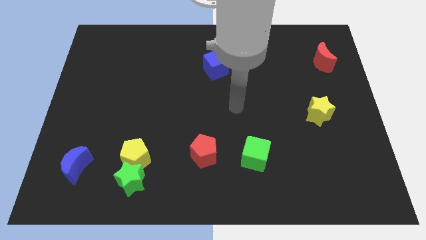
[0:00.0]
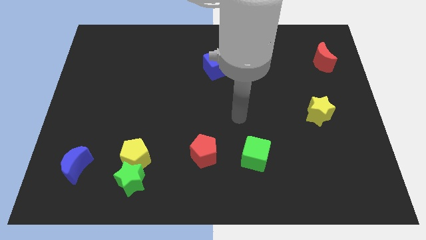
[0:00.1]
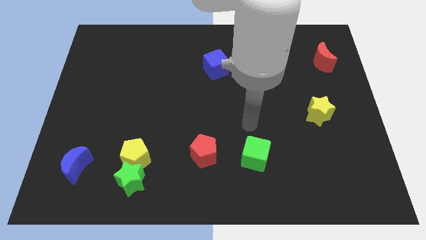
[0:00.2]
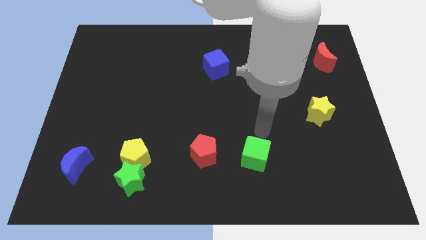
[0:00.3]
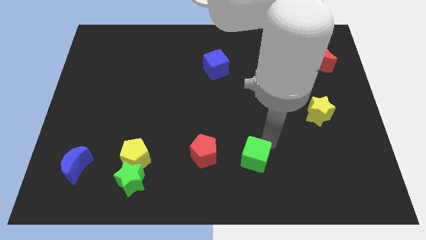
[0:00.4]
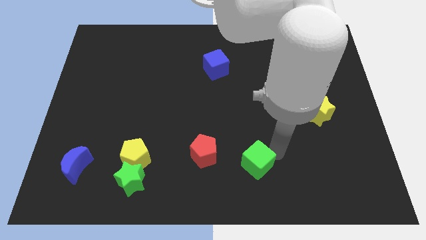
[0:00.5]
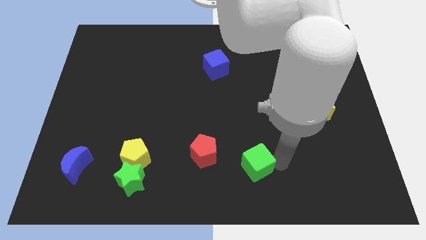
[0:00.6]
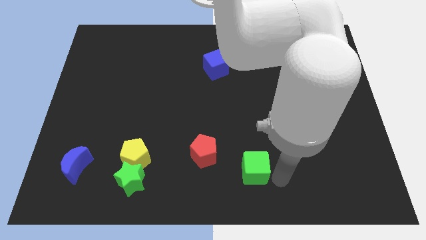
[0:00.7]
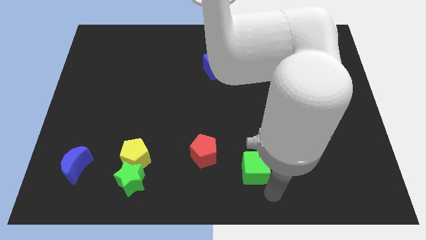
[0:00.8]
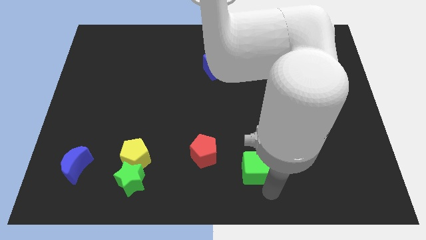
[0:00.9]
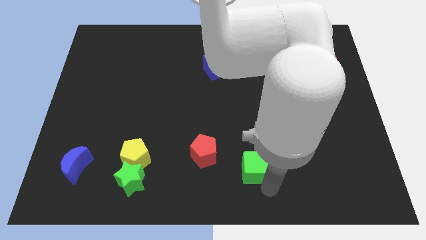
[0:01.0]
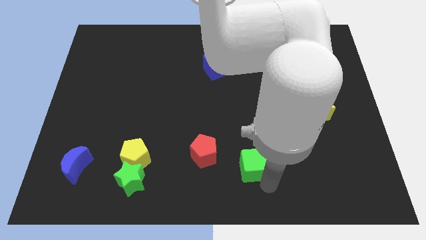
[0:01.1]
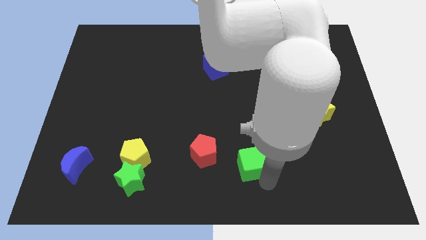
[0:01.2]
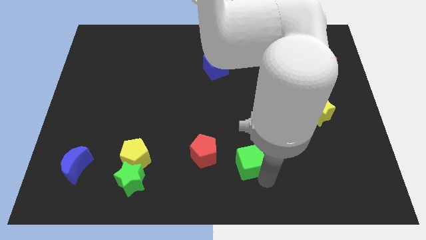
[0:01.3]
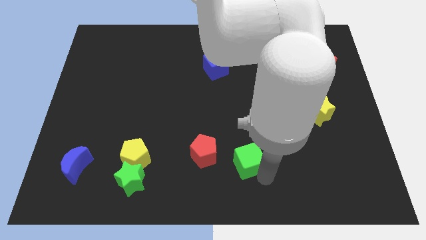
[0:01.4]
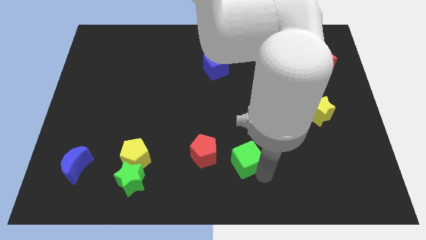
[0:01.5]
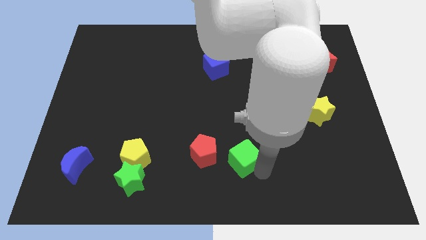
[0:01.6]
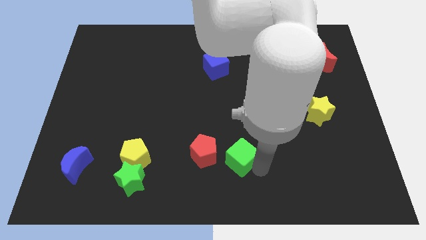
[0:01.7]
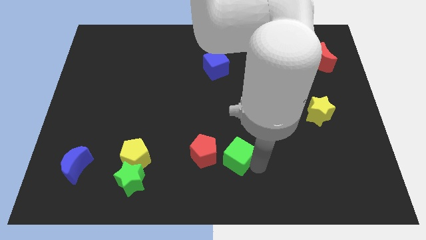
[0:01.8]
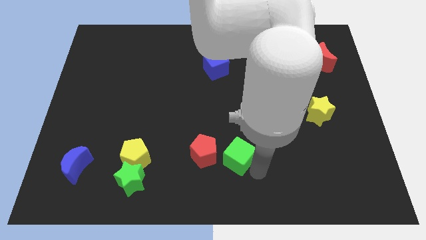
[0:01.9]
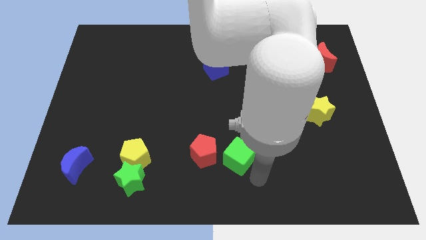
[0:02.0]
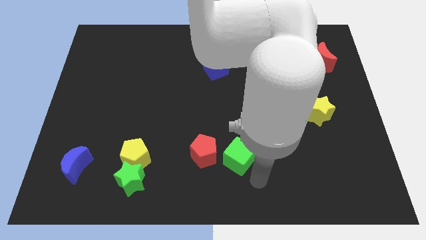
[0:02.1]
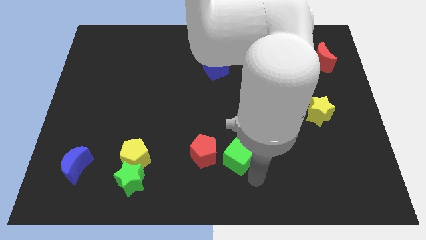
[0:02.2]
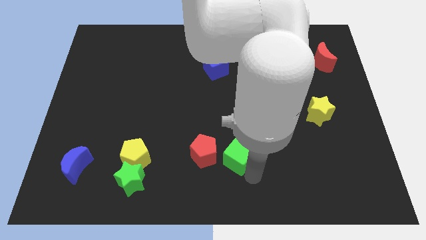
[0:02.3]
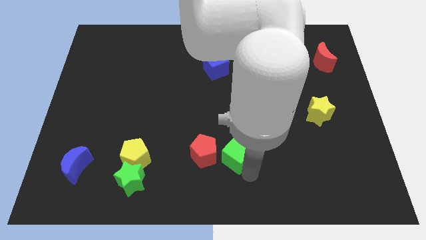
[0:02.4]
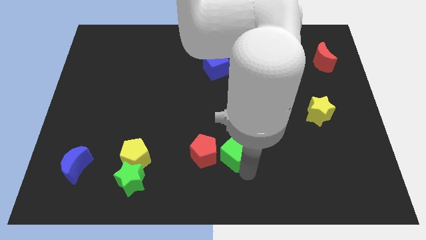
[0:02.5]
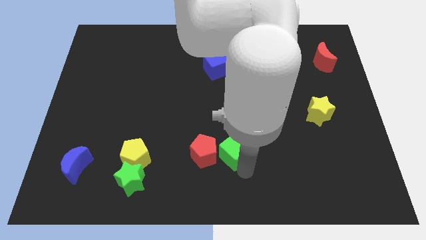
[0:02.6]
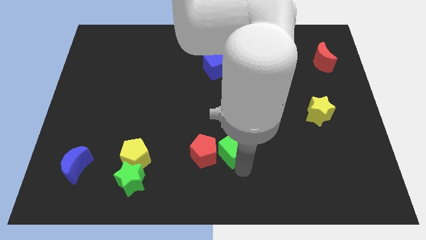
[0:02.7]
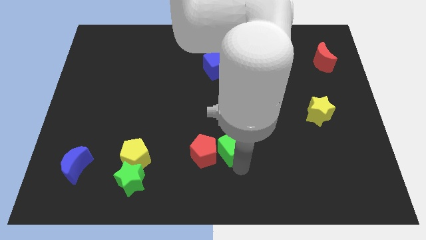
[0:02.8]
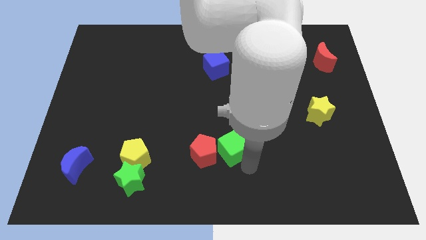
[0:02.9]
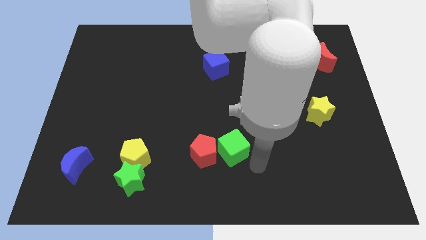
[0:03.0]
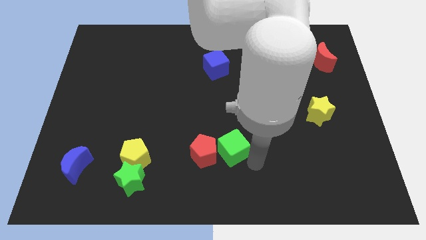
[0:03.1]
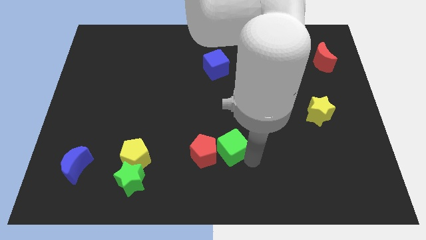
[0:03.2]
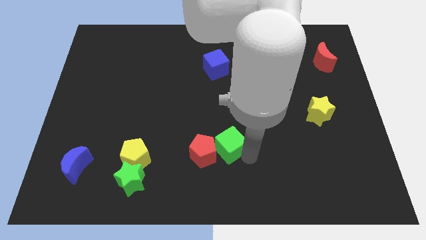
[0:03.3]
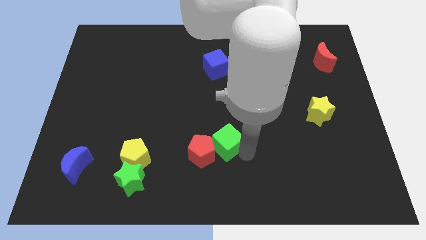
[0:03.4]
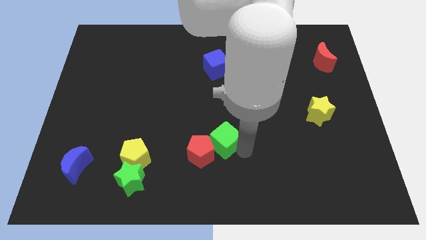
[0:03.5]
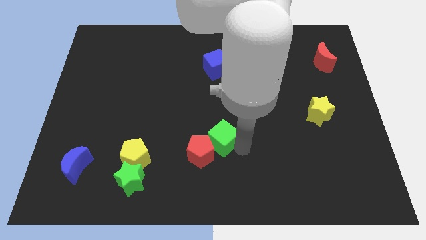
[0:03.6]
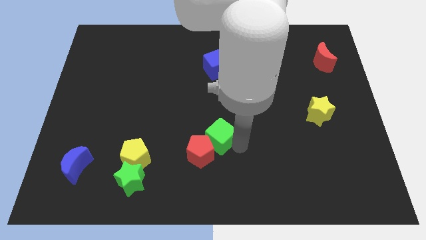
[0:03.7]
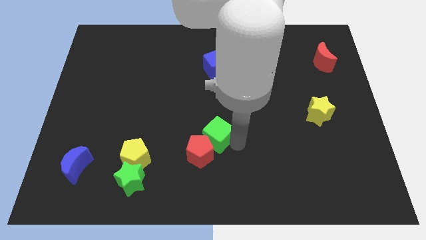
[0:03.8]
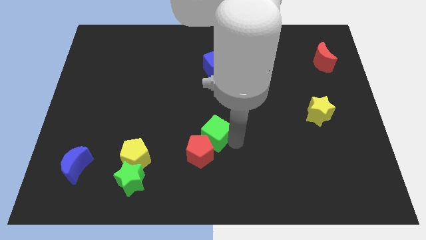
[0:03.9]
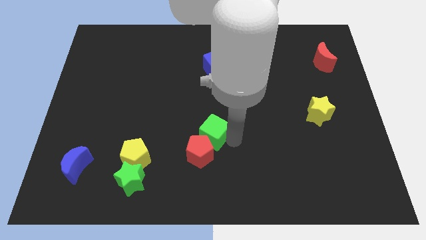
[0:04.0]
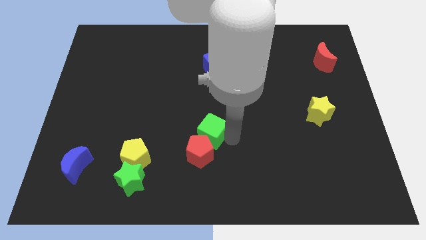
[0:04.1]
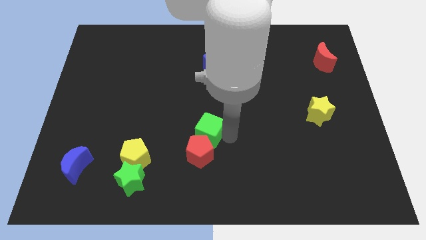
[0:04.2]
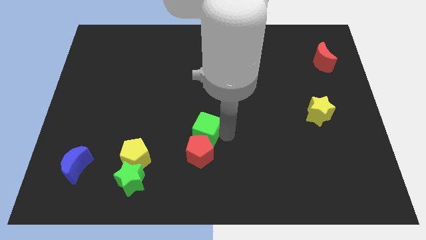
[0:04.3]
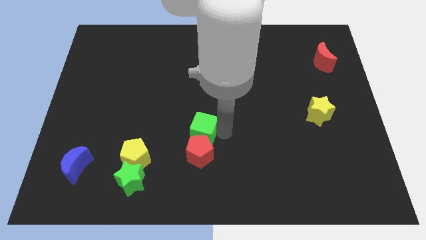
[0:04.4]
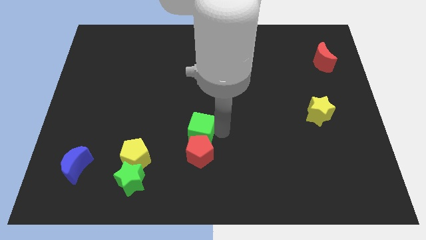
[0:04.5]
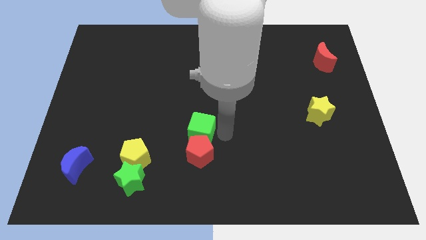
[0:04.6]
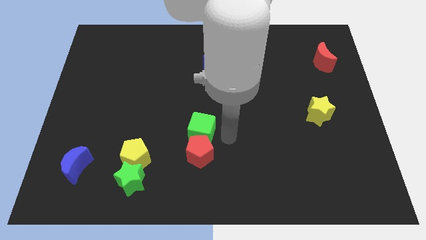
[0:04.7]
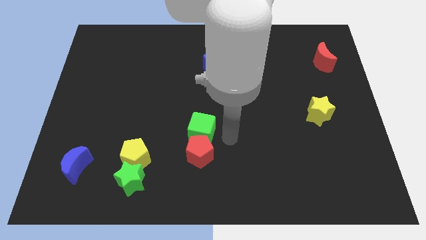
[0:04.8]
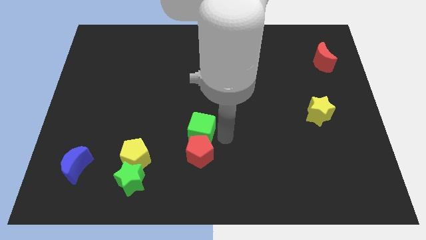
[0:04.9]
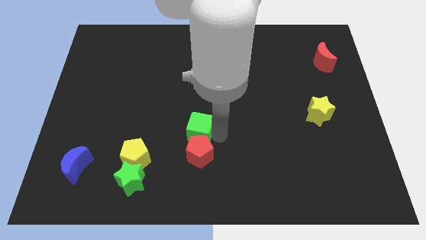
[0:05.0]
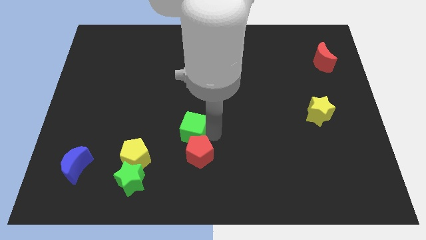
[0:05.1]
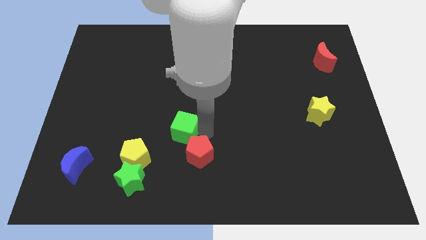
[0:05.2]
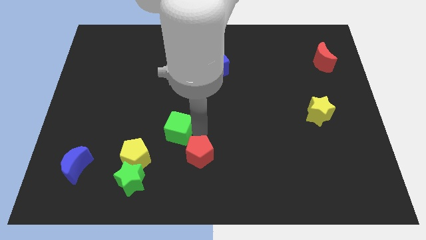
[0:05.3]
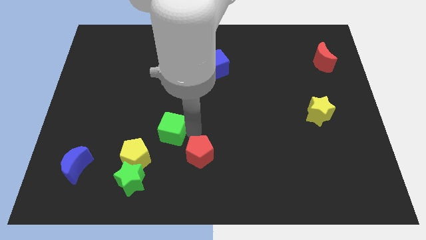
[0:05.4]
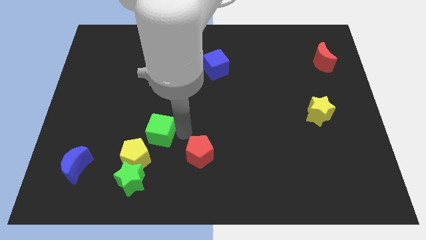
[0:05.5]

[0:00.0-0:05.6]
push the green cube to the top of the yellow pentagon

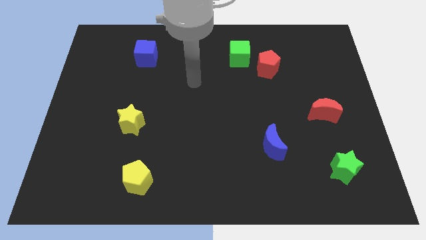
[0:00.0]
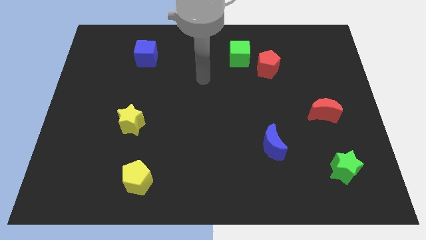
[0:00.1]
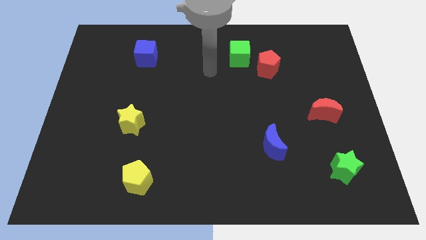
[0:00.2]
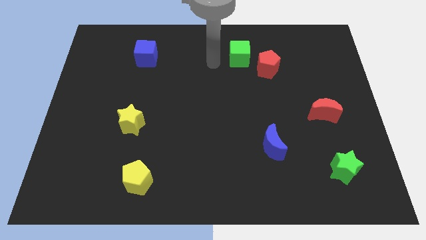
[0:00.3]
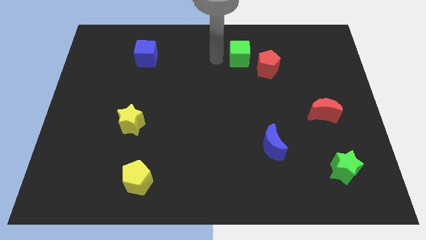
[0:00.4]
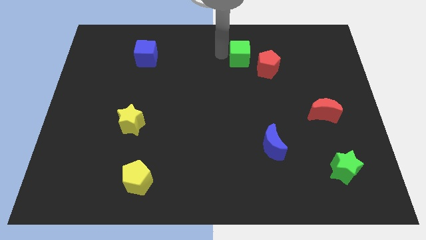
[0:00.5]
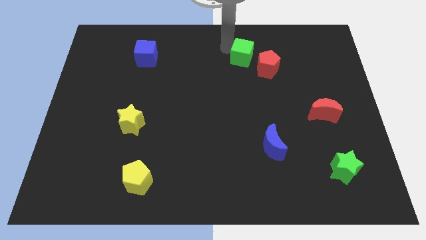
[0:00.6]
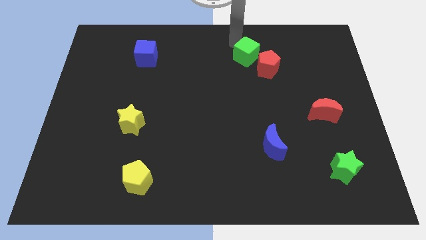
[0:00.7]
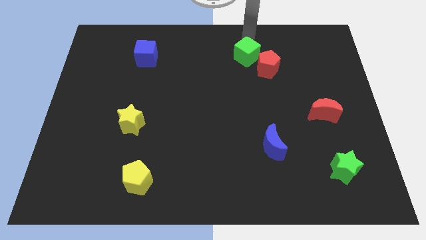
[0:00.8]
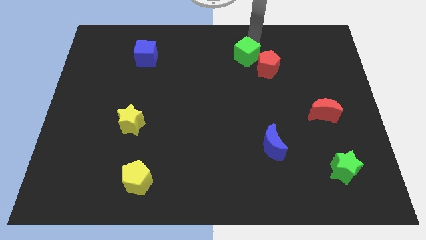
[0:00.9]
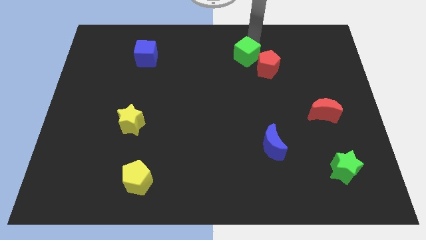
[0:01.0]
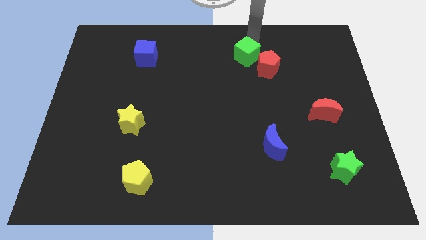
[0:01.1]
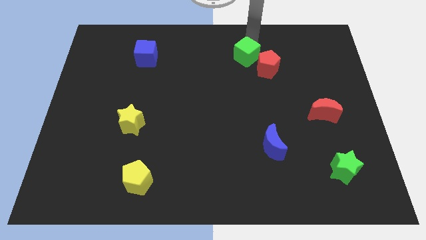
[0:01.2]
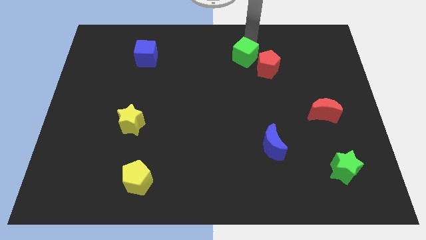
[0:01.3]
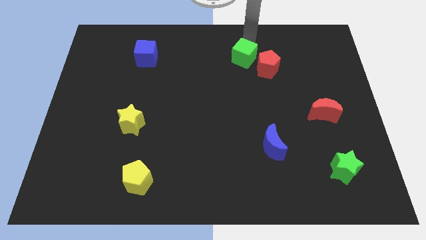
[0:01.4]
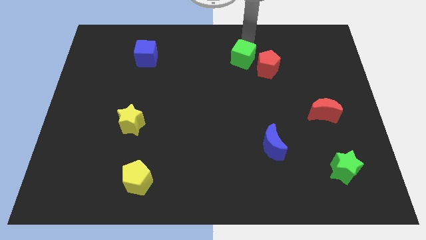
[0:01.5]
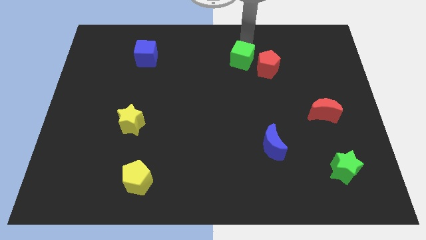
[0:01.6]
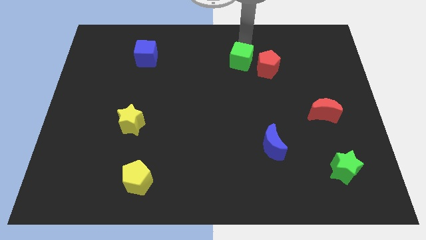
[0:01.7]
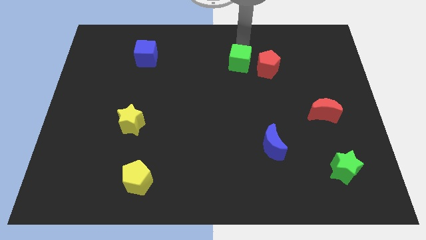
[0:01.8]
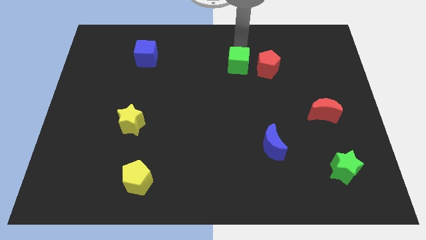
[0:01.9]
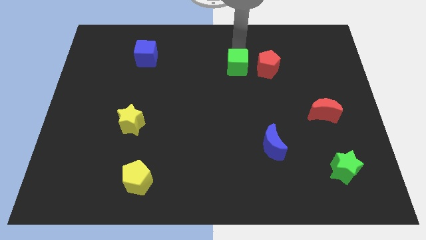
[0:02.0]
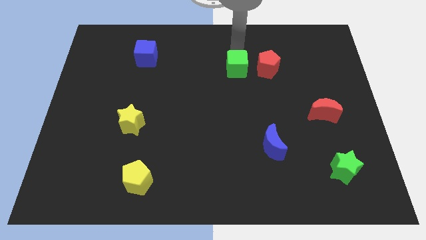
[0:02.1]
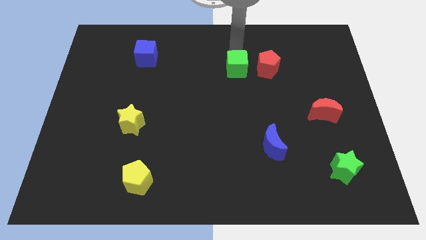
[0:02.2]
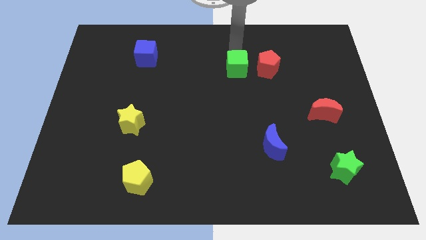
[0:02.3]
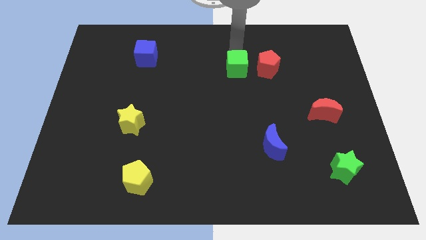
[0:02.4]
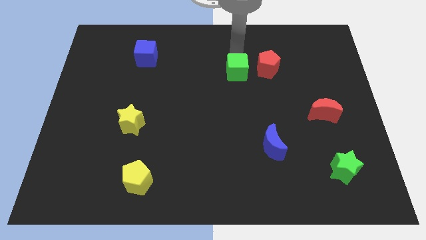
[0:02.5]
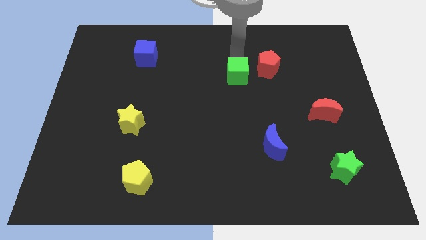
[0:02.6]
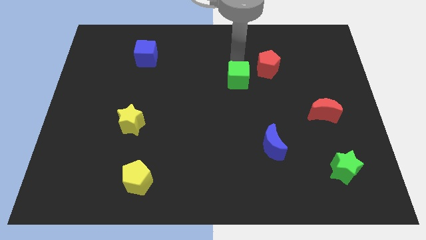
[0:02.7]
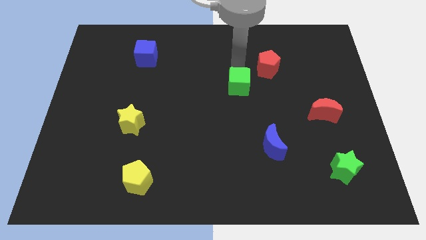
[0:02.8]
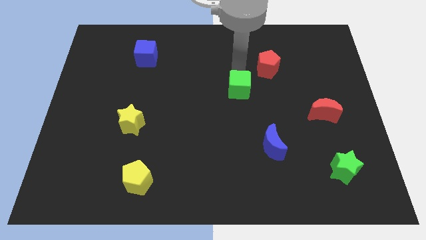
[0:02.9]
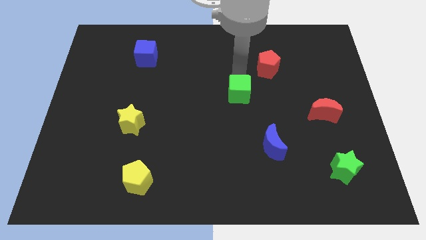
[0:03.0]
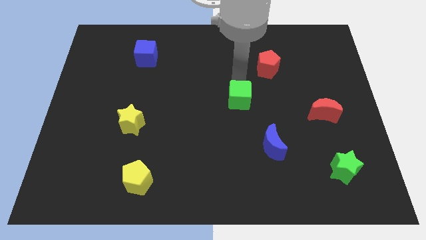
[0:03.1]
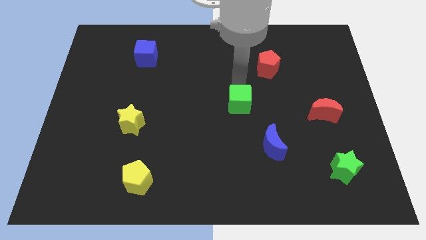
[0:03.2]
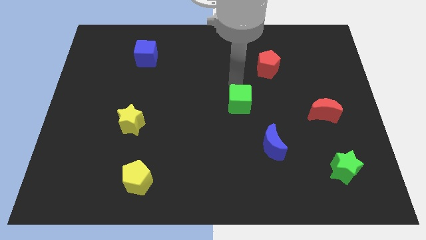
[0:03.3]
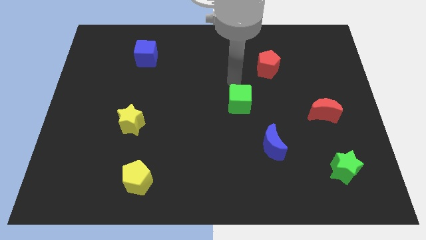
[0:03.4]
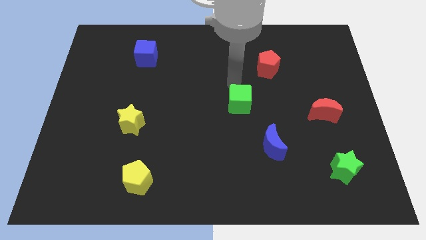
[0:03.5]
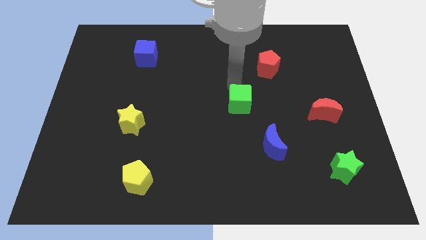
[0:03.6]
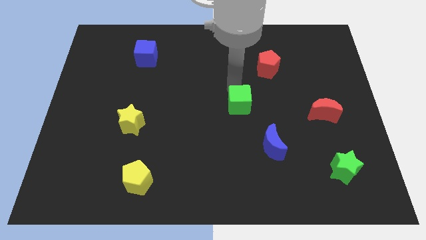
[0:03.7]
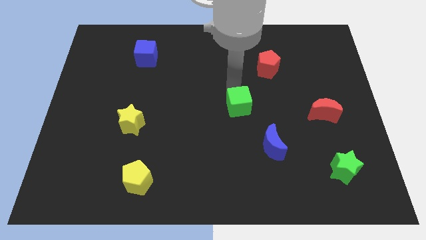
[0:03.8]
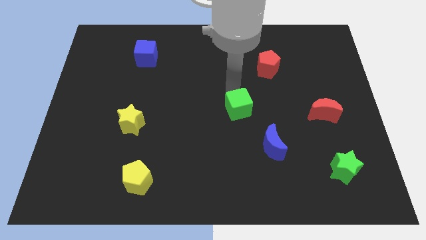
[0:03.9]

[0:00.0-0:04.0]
slide the green cube diagonally up and to the left of the blue moon
